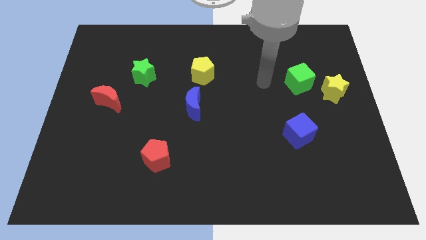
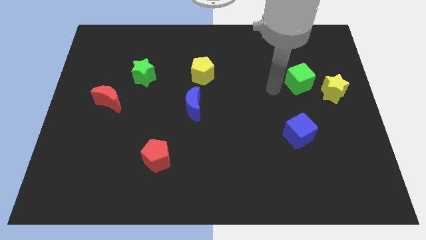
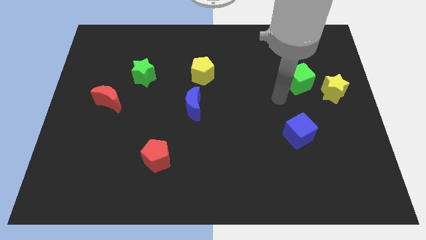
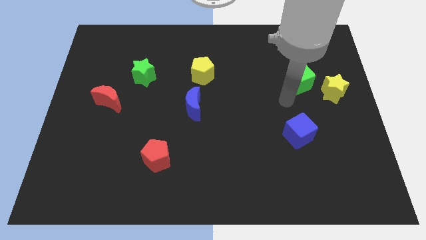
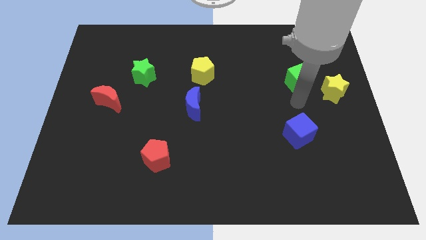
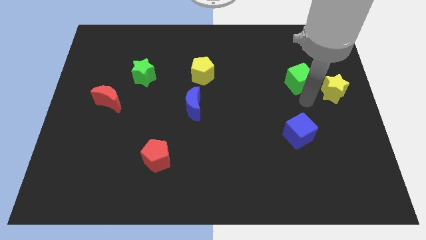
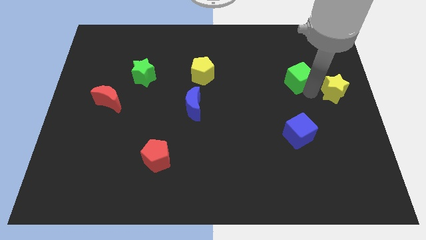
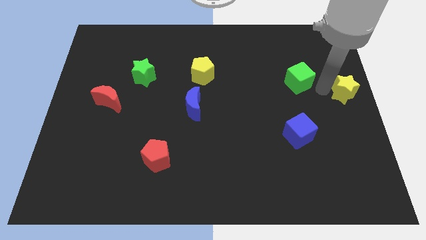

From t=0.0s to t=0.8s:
pull the green cube apart from the yellow star

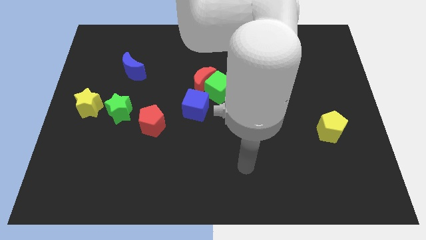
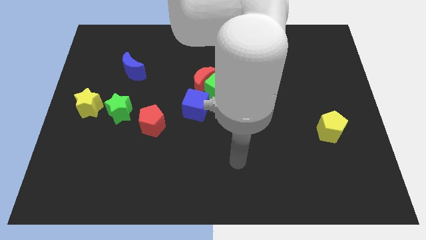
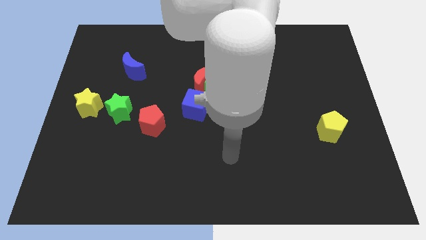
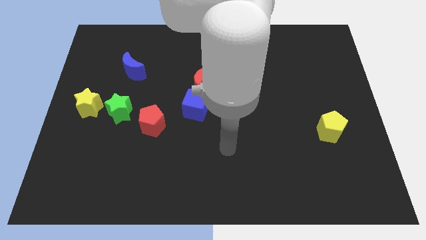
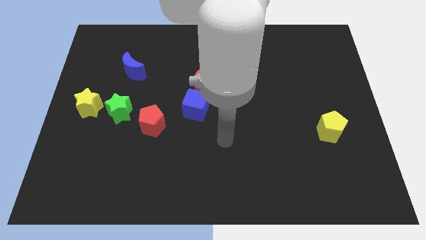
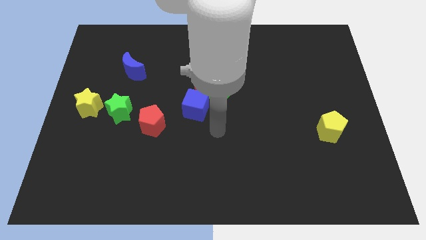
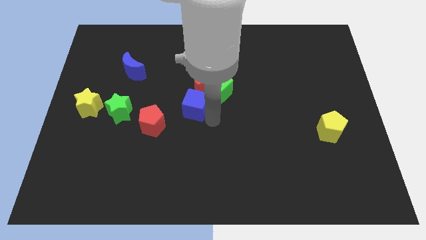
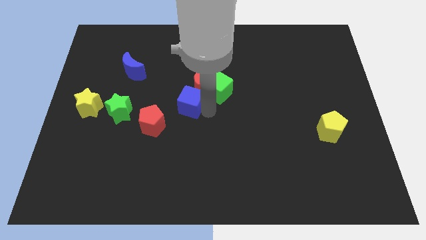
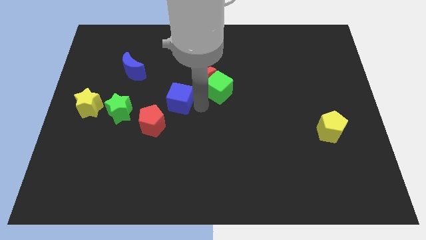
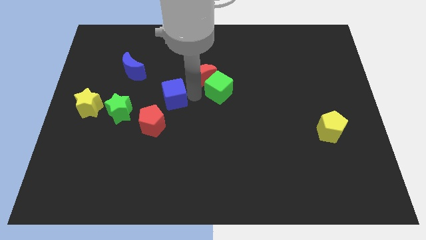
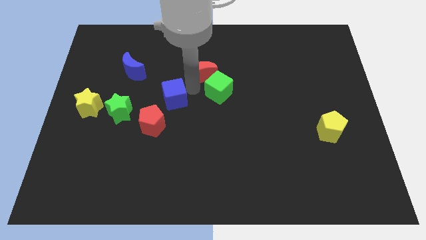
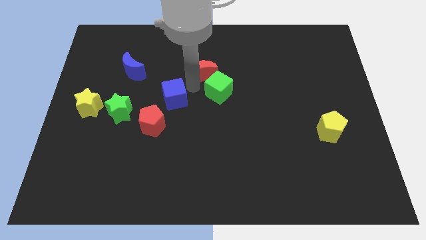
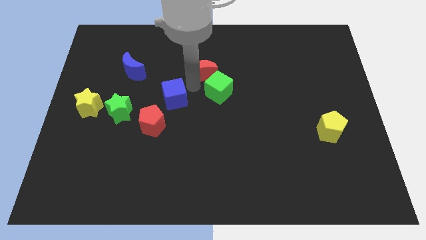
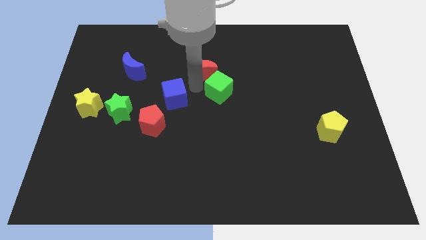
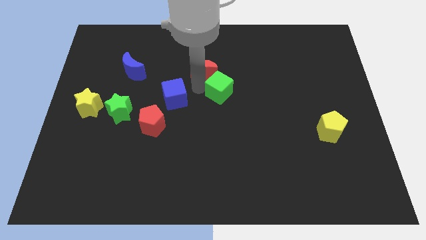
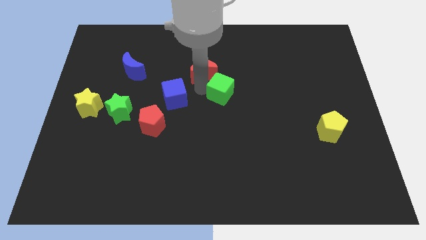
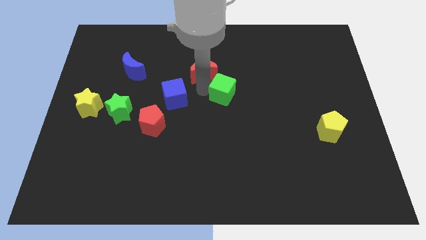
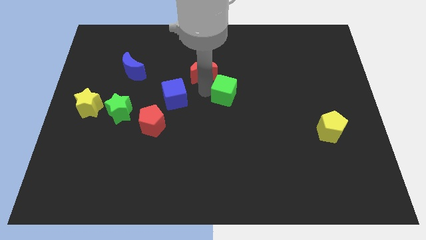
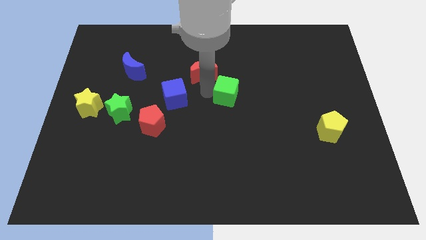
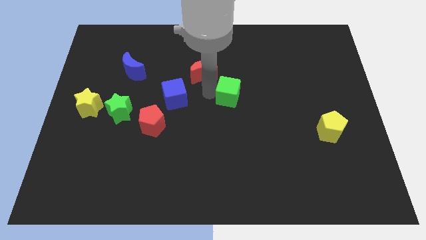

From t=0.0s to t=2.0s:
move the green cube away from the red moon and blue cube

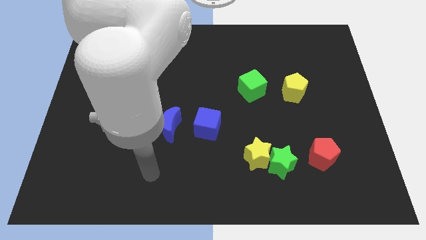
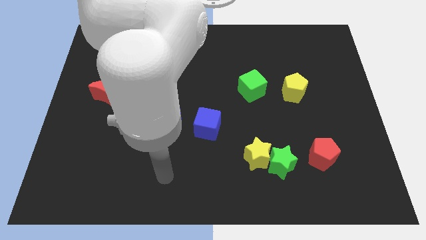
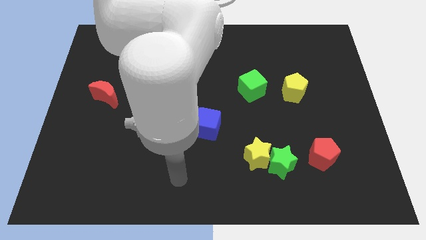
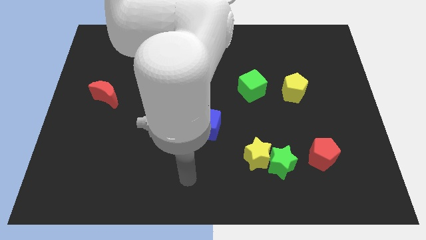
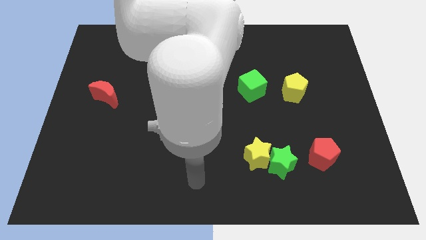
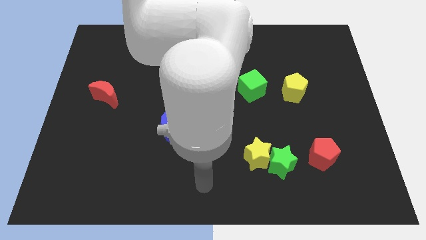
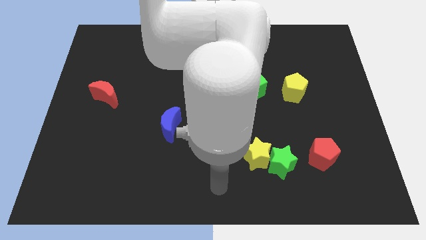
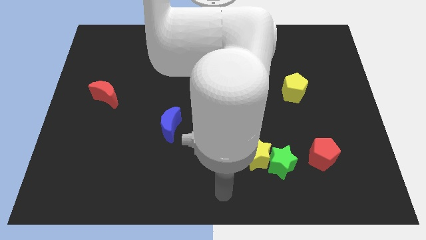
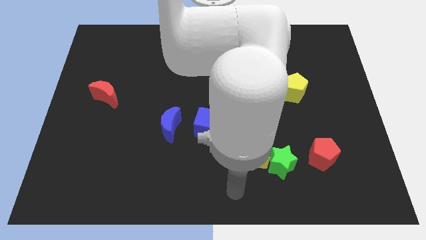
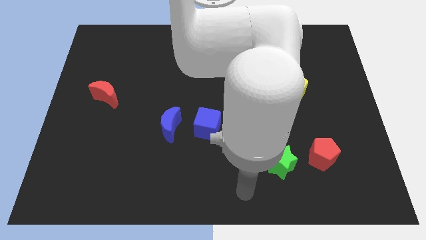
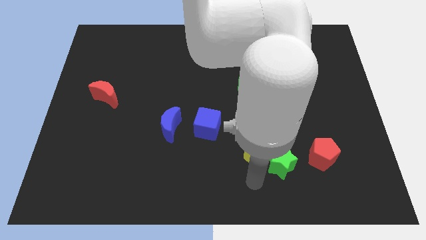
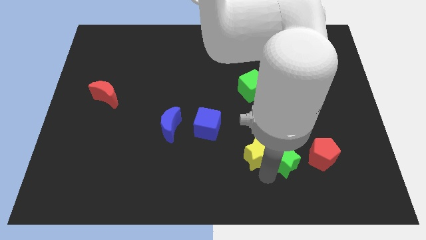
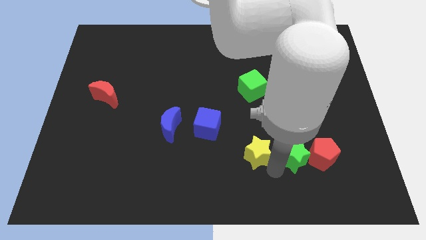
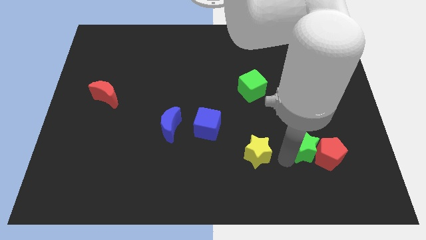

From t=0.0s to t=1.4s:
separate the yellow star from the green star

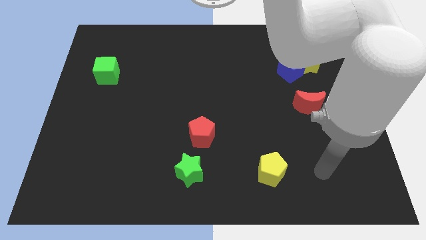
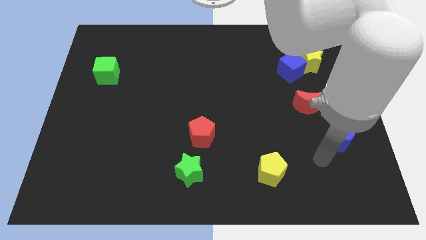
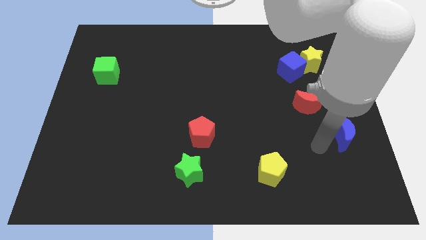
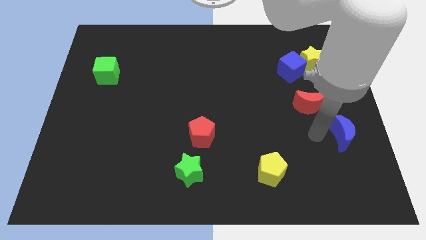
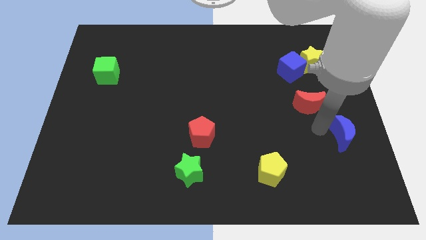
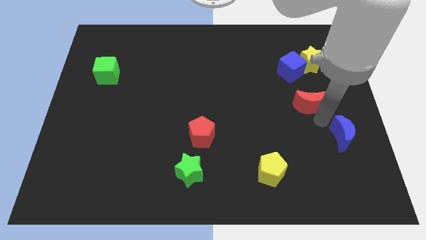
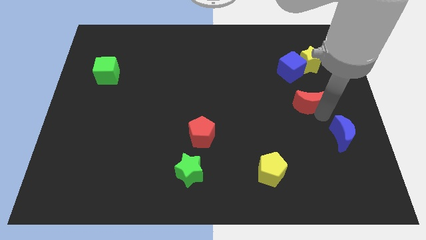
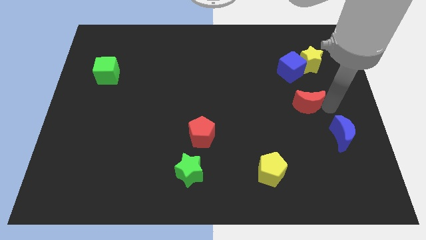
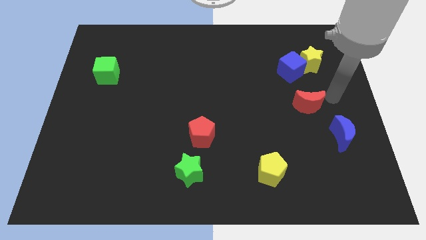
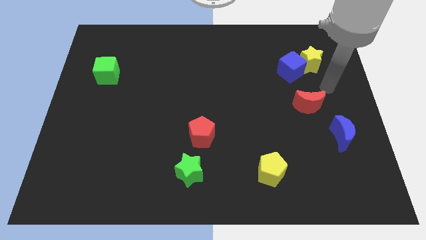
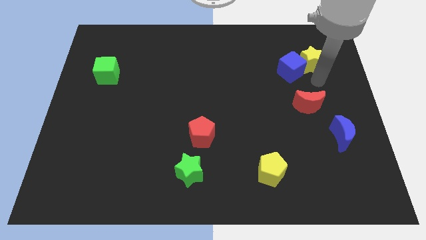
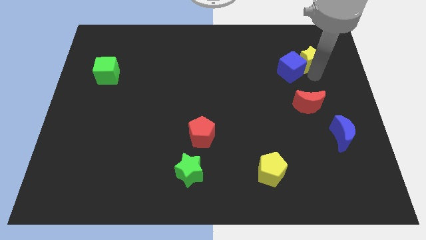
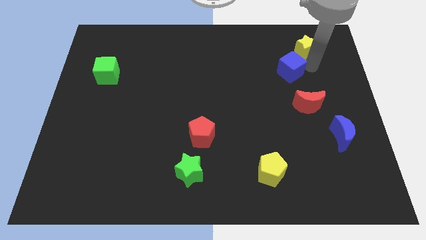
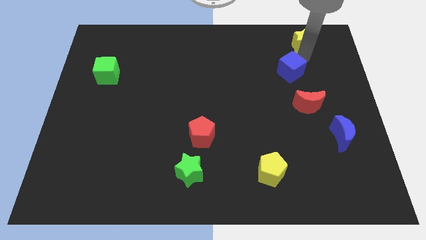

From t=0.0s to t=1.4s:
move the blue cube away from the yellow star

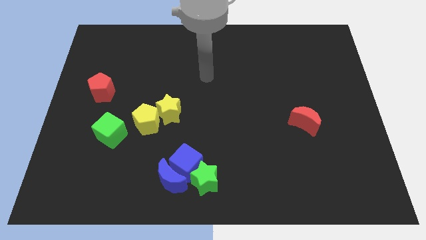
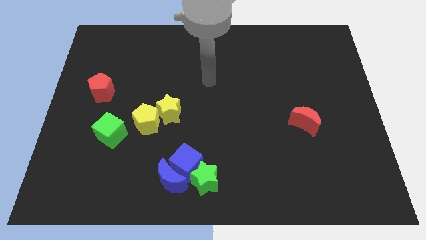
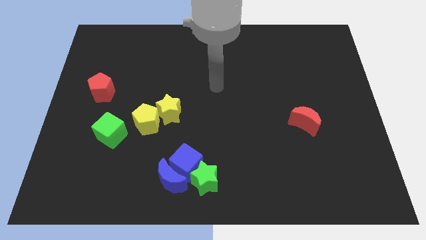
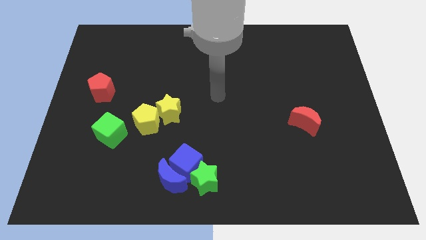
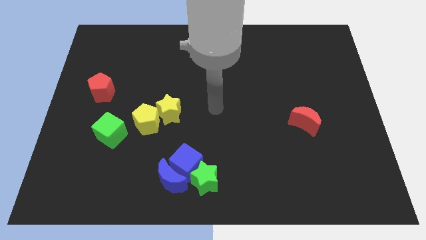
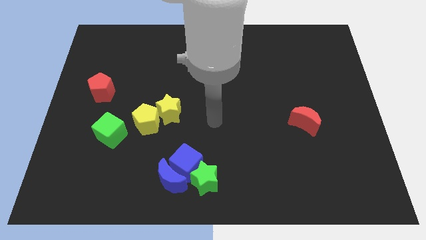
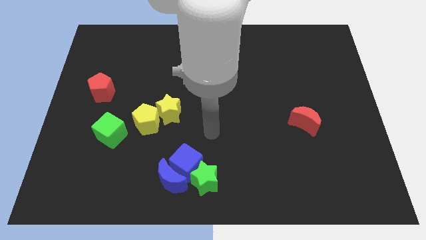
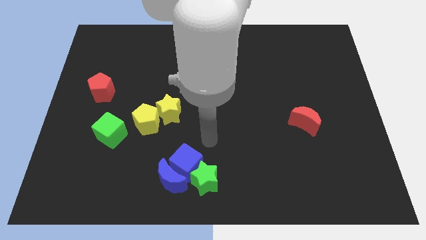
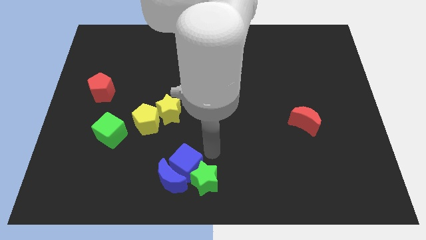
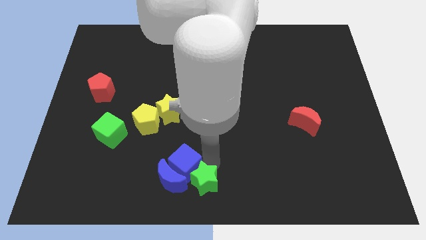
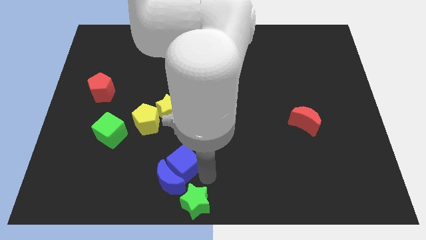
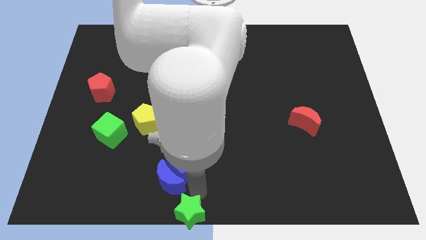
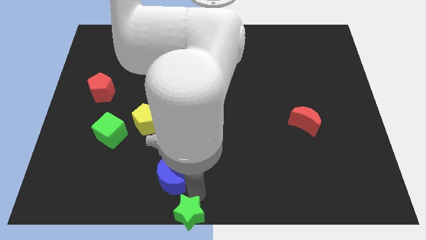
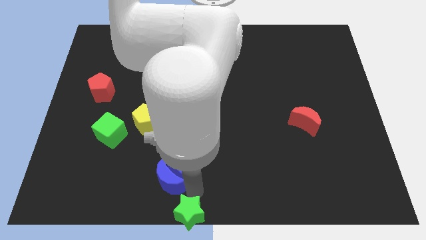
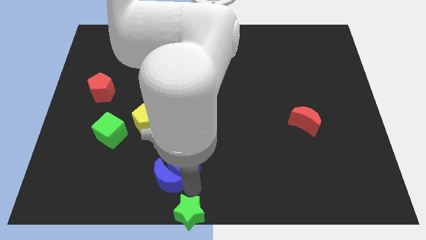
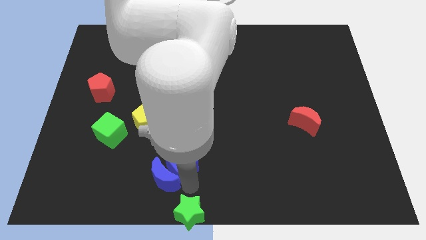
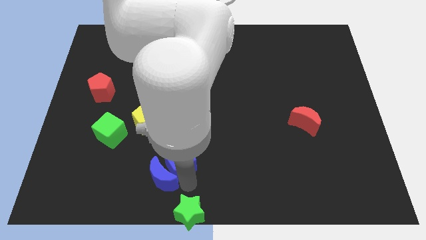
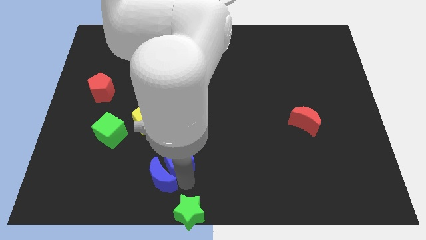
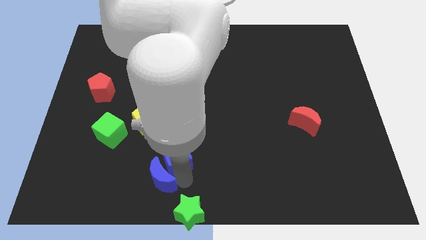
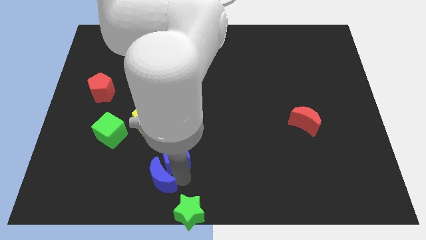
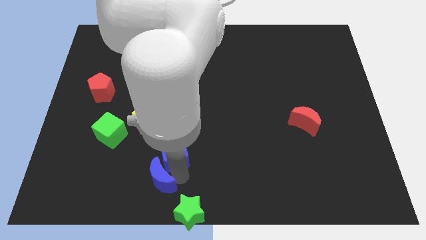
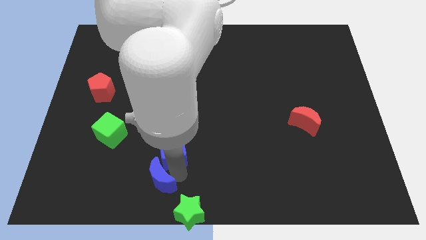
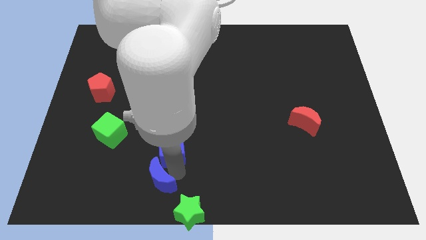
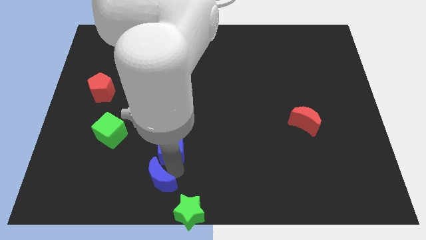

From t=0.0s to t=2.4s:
move the blue cube away from the blue moon and green star

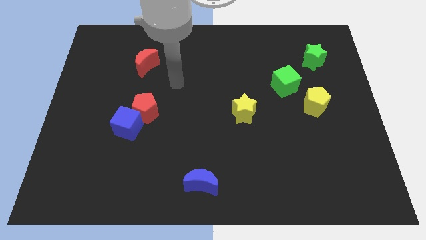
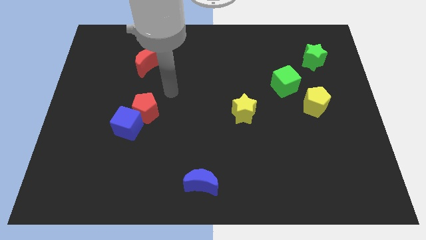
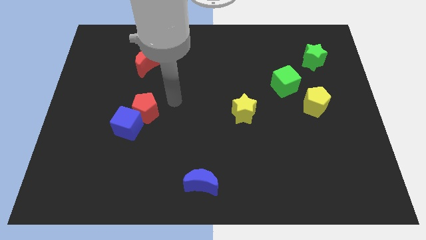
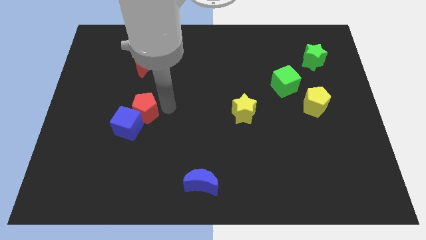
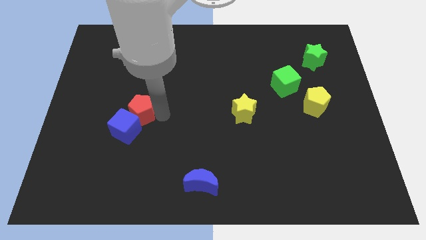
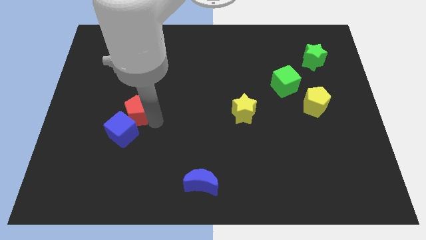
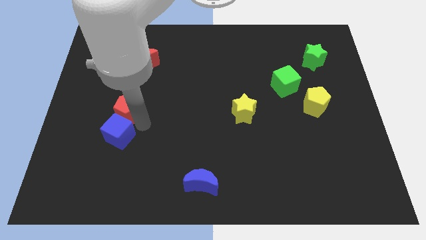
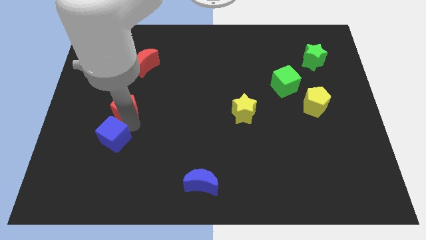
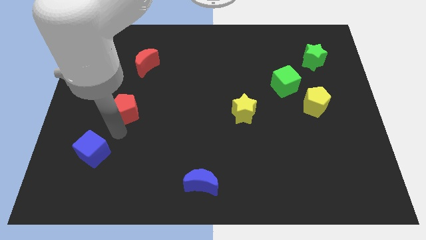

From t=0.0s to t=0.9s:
pull the red pentagon apart from the blue cube

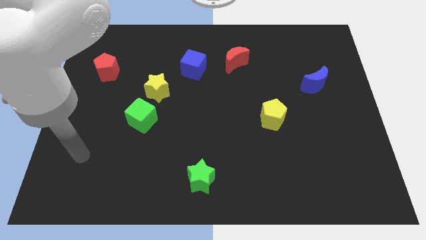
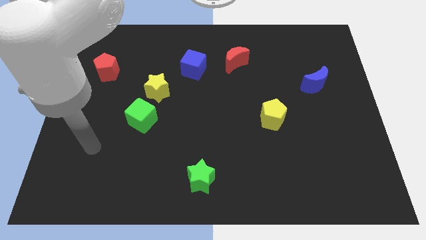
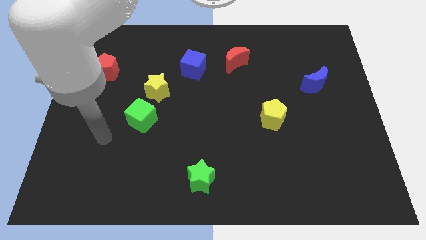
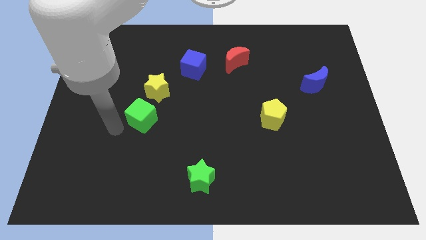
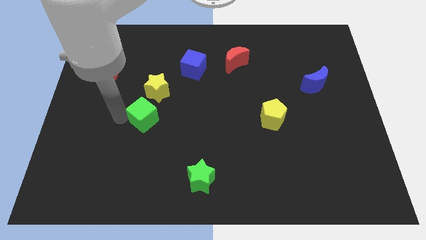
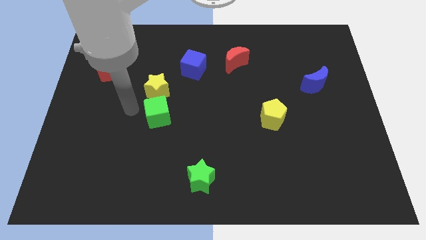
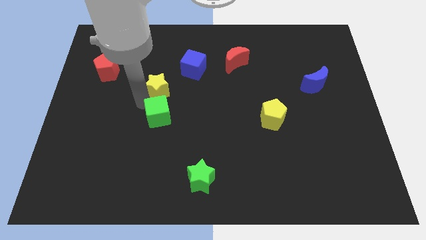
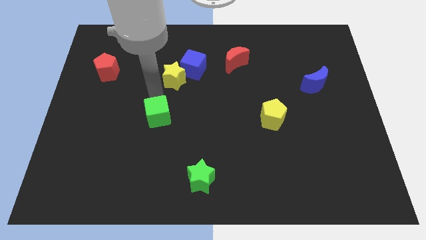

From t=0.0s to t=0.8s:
separate the green cube from the yellow star
